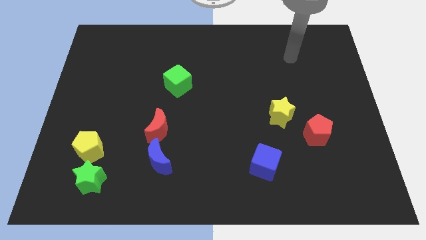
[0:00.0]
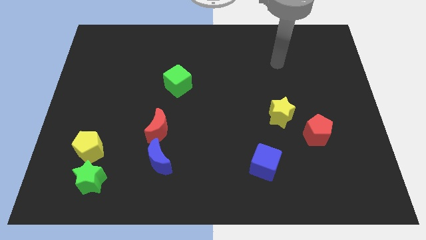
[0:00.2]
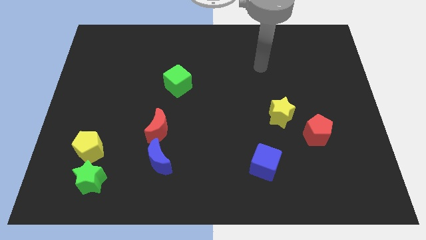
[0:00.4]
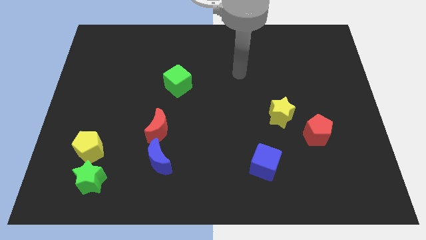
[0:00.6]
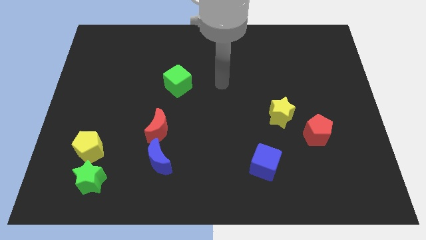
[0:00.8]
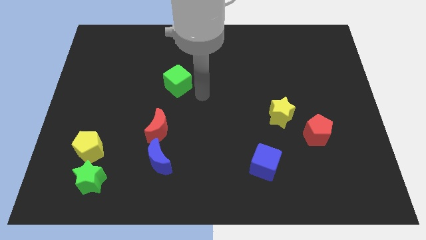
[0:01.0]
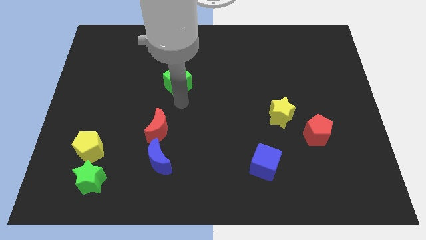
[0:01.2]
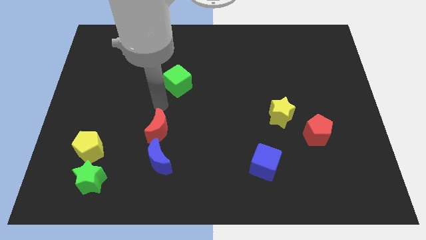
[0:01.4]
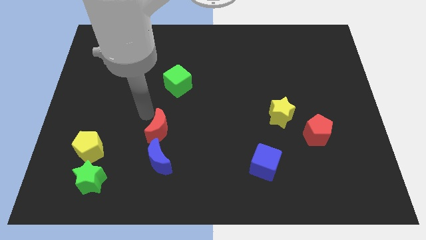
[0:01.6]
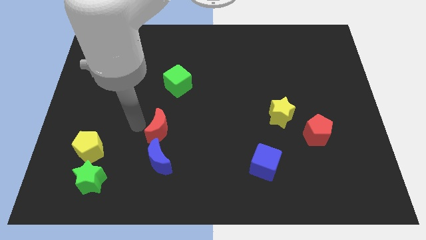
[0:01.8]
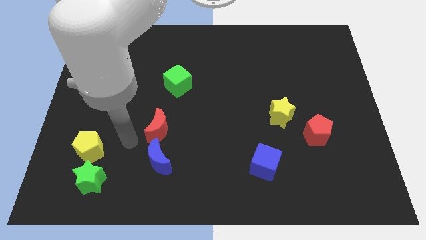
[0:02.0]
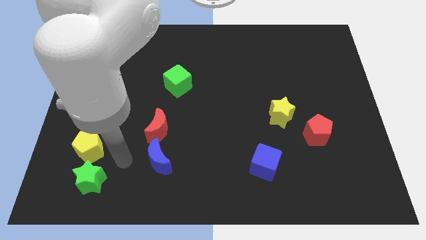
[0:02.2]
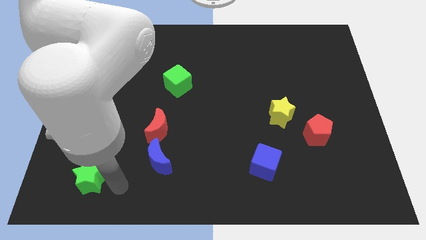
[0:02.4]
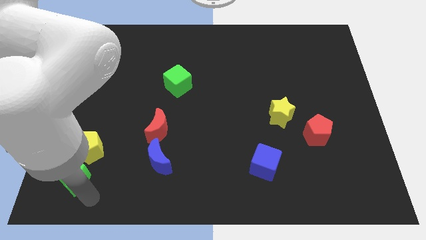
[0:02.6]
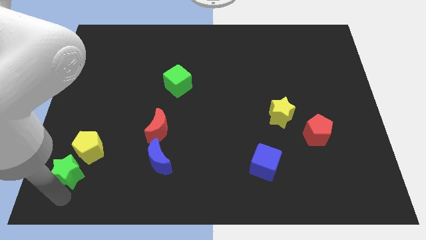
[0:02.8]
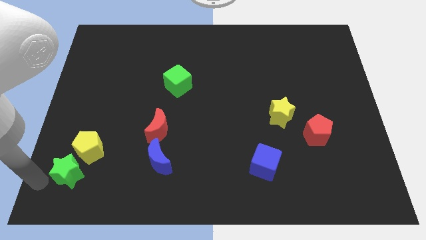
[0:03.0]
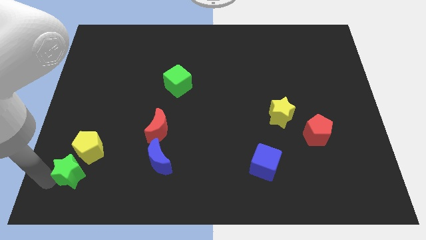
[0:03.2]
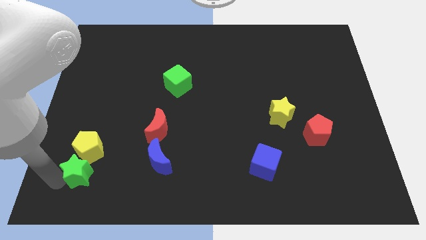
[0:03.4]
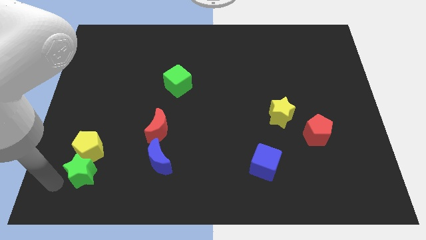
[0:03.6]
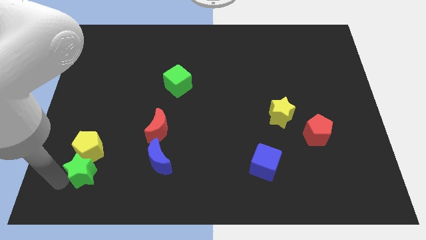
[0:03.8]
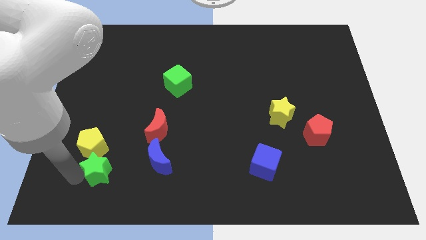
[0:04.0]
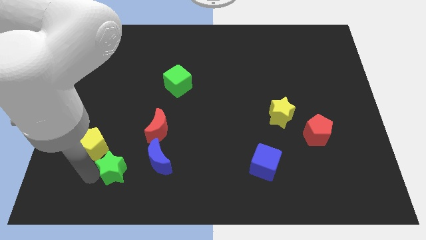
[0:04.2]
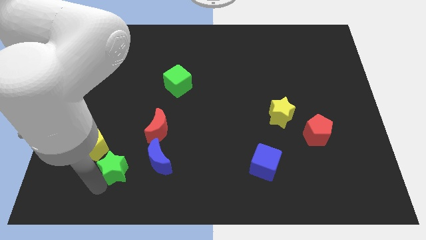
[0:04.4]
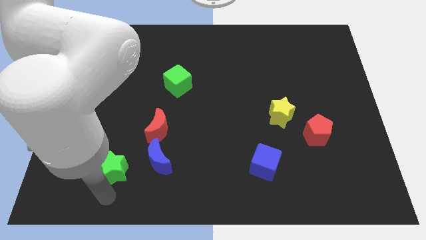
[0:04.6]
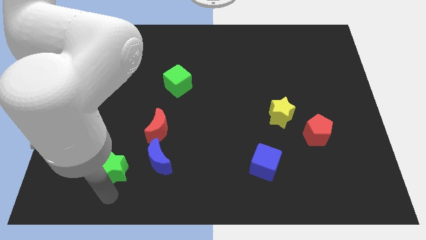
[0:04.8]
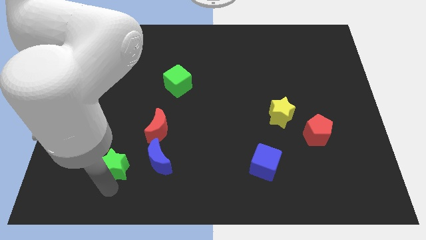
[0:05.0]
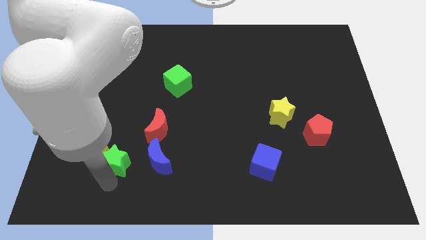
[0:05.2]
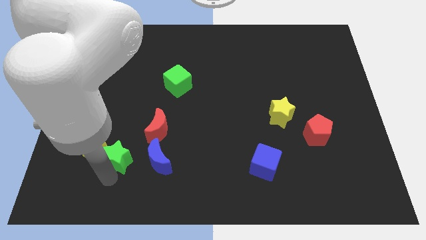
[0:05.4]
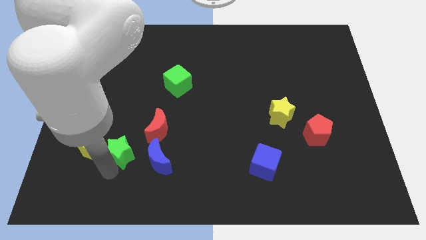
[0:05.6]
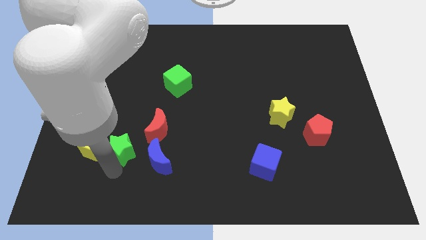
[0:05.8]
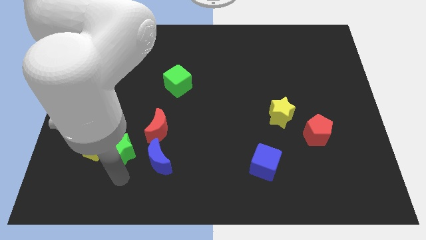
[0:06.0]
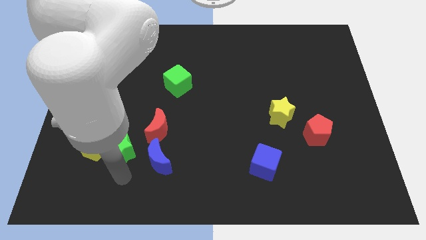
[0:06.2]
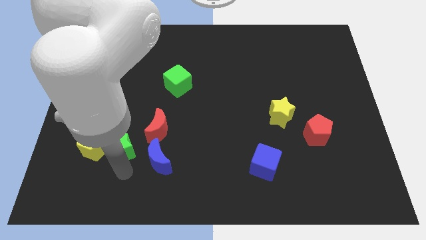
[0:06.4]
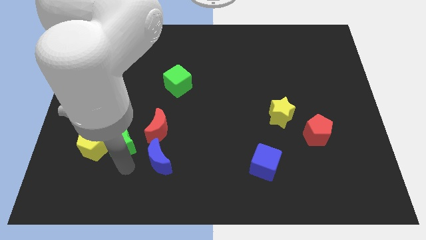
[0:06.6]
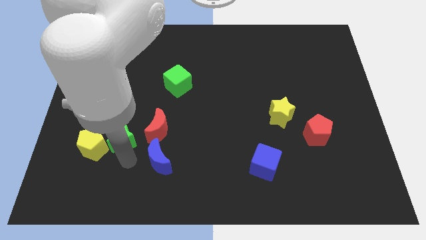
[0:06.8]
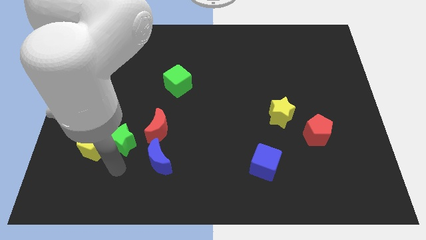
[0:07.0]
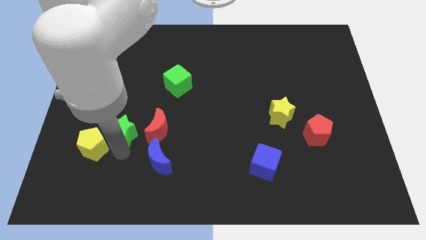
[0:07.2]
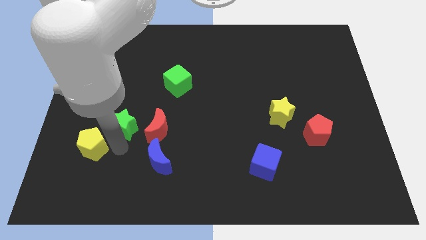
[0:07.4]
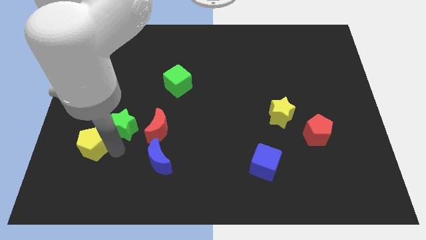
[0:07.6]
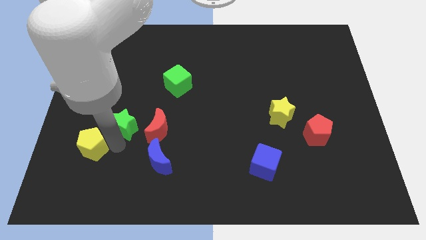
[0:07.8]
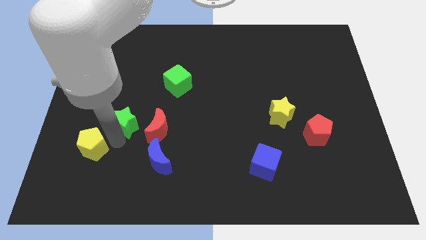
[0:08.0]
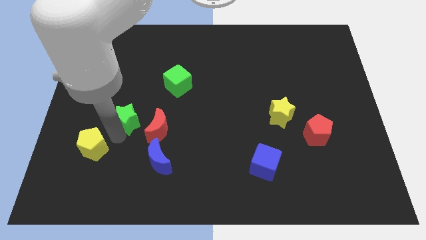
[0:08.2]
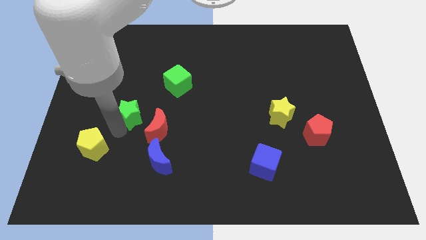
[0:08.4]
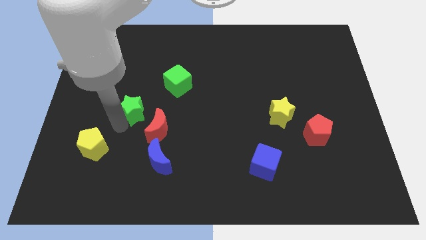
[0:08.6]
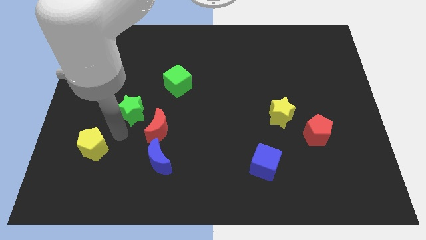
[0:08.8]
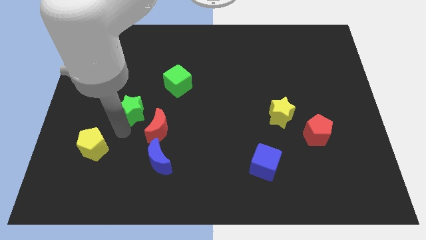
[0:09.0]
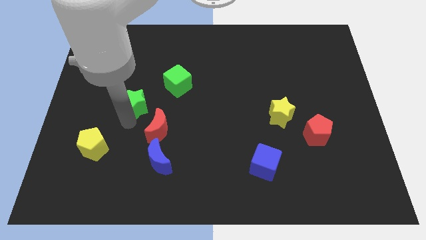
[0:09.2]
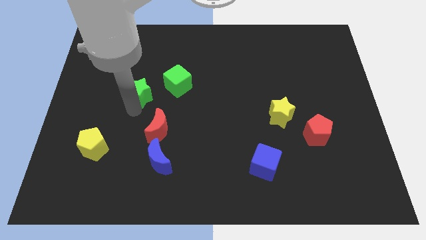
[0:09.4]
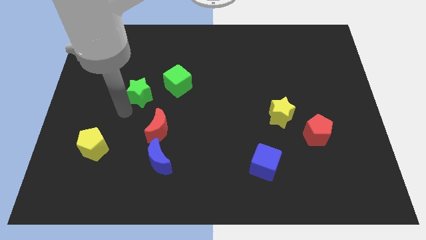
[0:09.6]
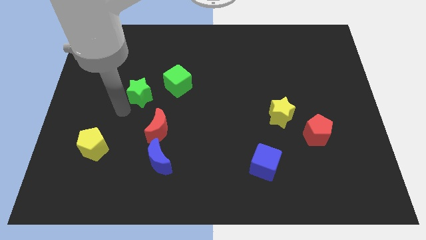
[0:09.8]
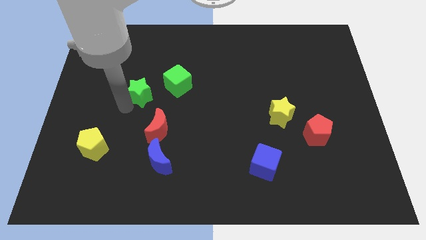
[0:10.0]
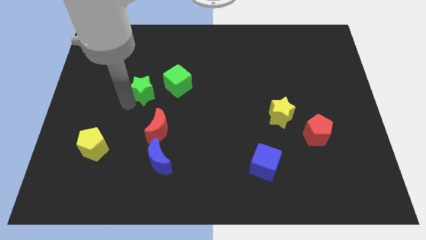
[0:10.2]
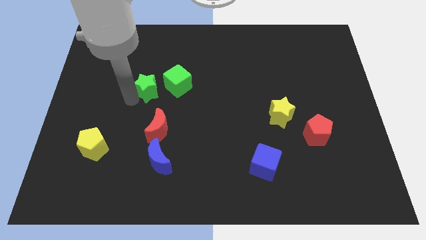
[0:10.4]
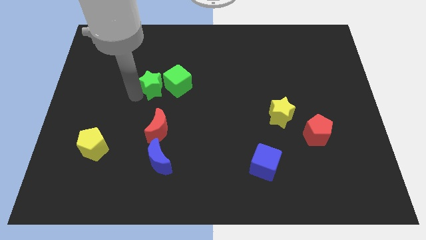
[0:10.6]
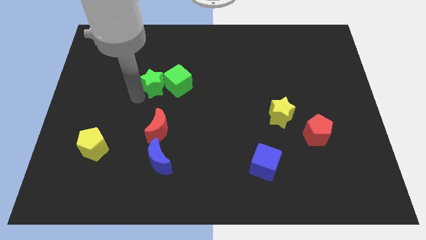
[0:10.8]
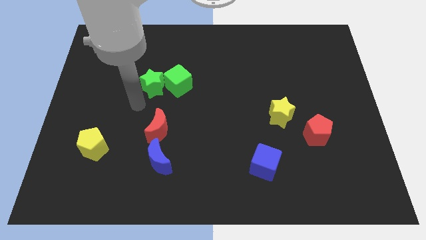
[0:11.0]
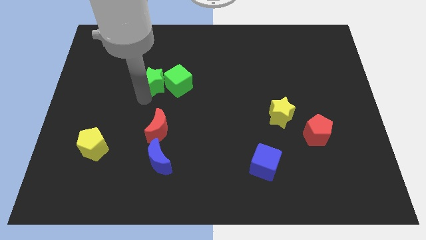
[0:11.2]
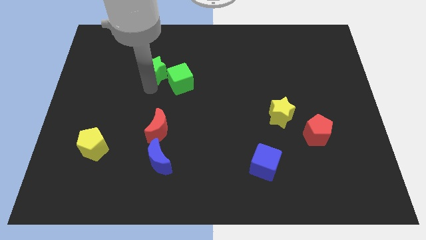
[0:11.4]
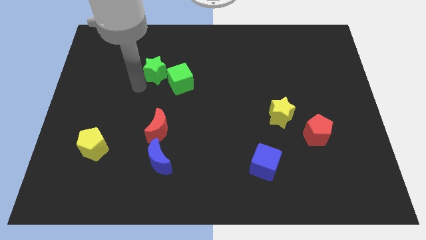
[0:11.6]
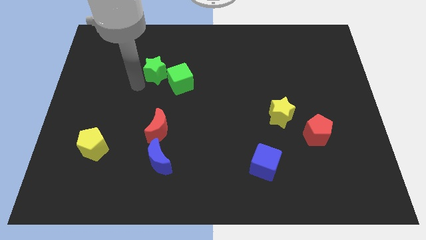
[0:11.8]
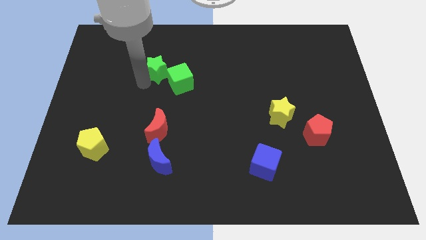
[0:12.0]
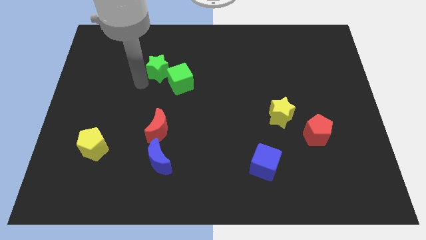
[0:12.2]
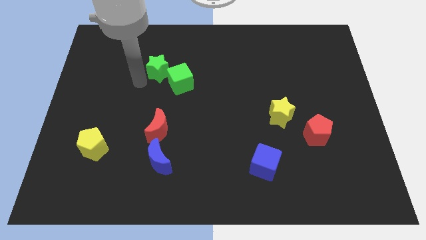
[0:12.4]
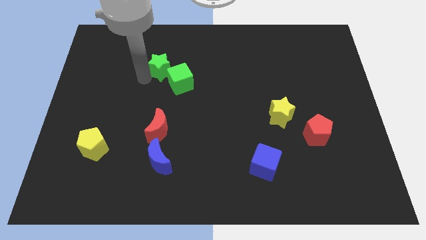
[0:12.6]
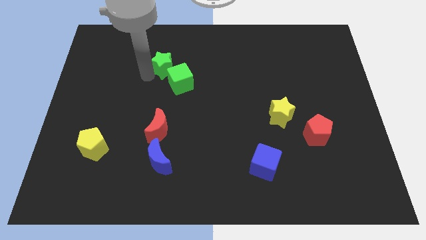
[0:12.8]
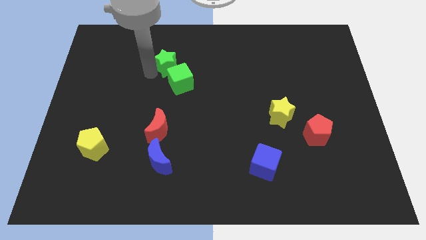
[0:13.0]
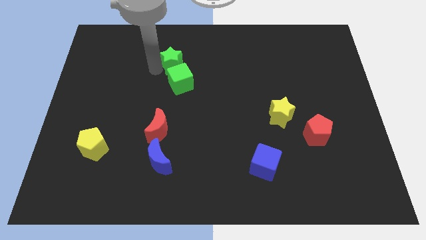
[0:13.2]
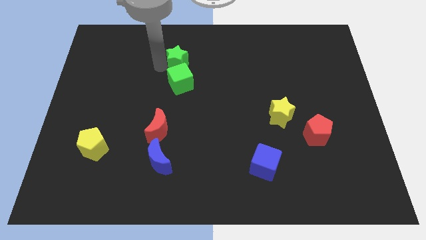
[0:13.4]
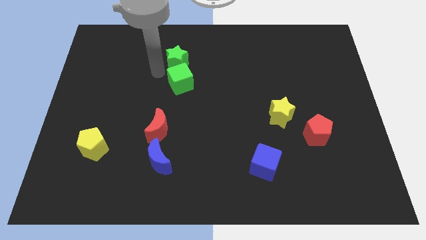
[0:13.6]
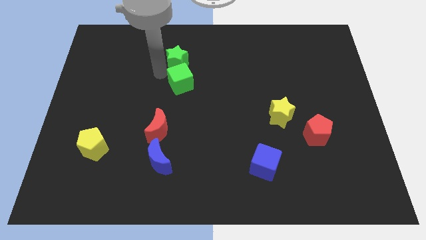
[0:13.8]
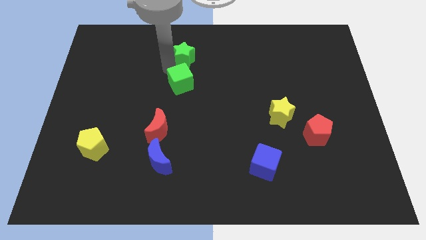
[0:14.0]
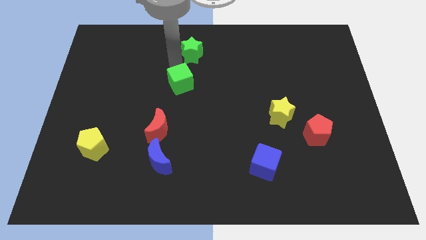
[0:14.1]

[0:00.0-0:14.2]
push the green star to the top

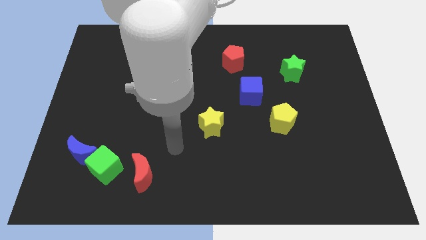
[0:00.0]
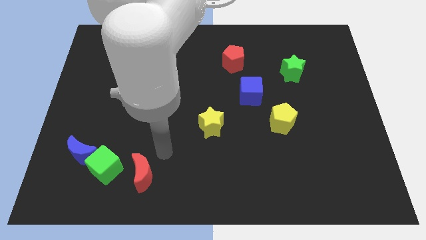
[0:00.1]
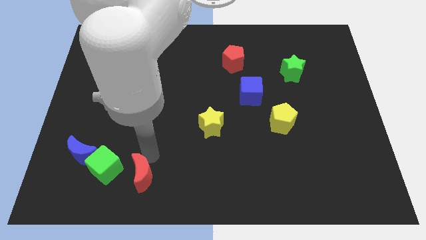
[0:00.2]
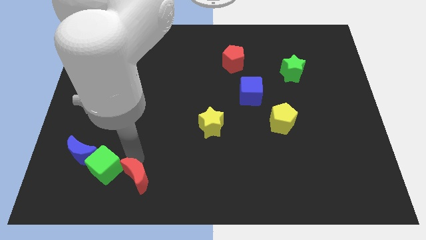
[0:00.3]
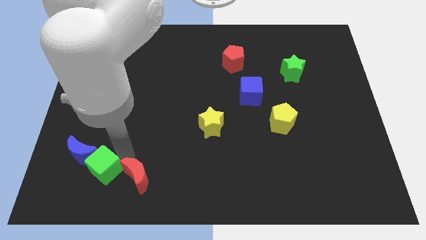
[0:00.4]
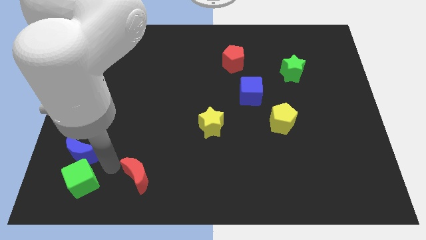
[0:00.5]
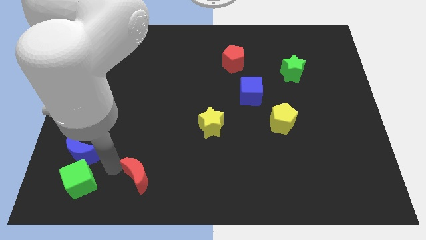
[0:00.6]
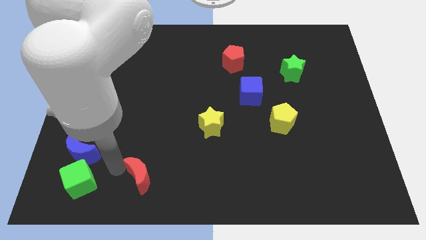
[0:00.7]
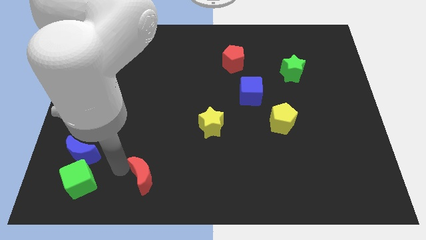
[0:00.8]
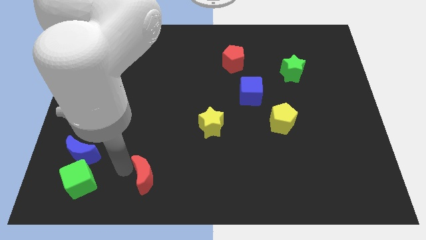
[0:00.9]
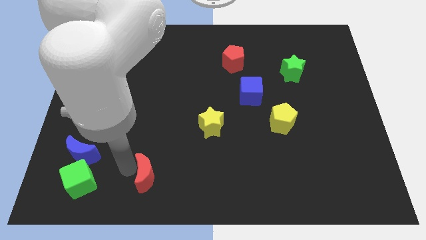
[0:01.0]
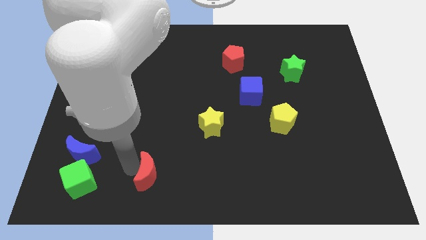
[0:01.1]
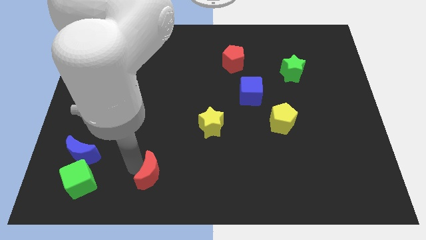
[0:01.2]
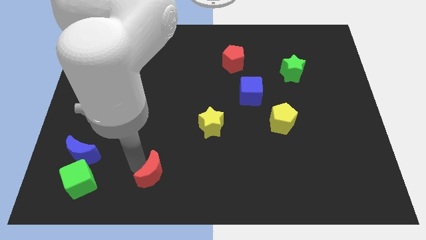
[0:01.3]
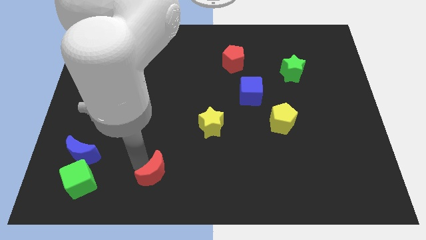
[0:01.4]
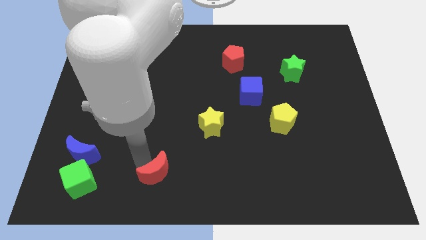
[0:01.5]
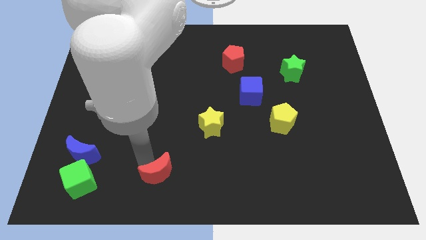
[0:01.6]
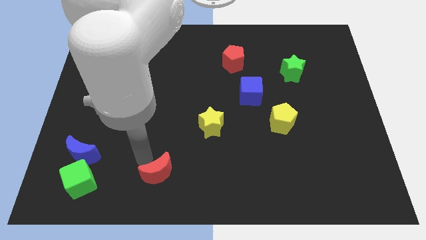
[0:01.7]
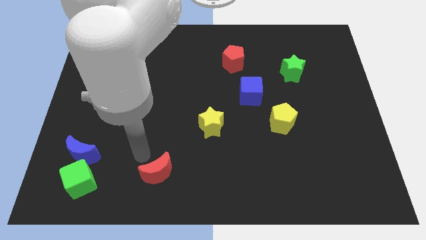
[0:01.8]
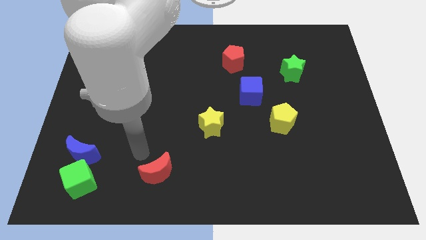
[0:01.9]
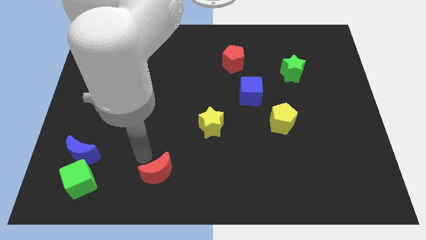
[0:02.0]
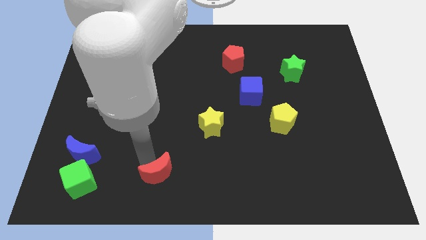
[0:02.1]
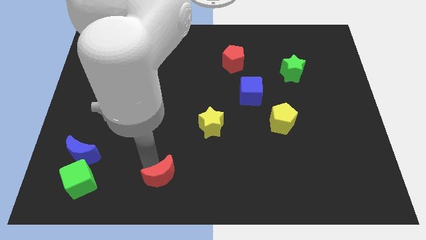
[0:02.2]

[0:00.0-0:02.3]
put the red moon to the bottom
